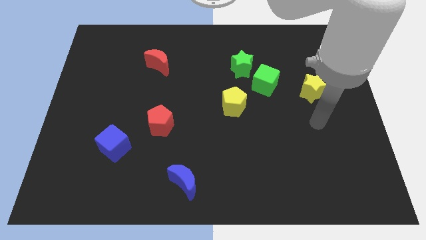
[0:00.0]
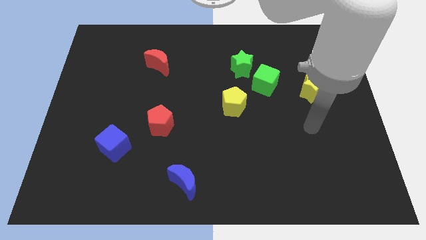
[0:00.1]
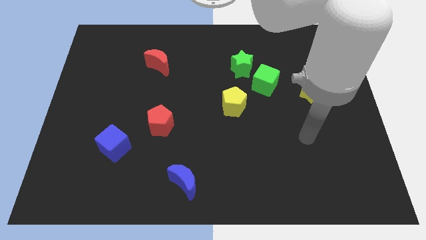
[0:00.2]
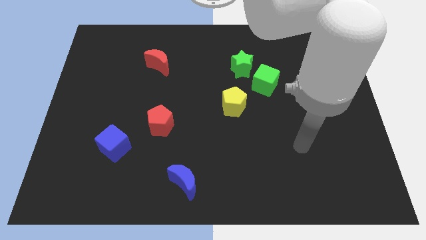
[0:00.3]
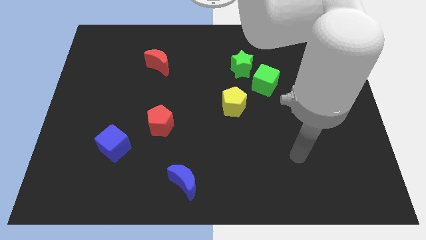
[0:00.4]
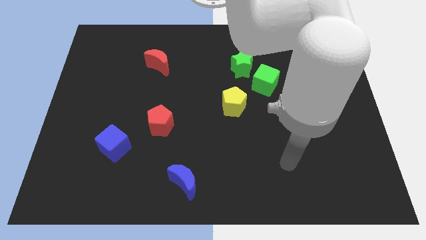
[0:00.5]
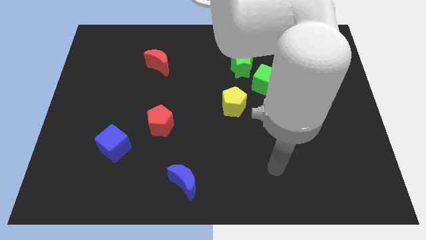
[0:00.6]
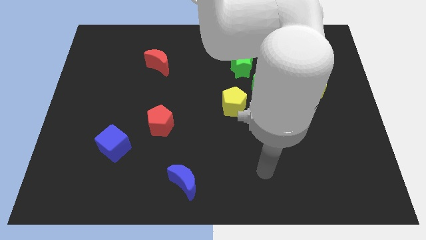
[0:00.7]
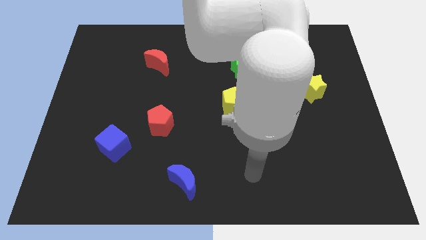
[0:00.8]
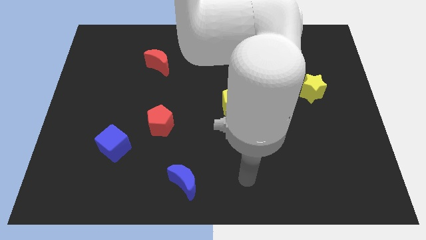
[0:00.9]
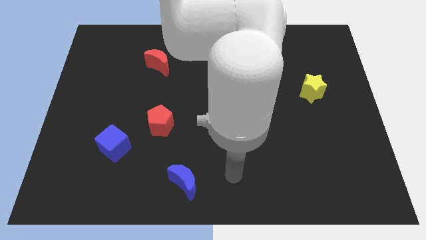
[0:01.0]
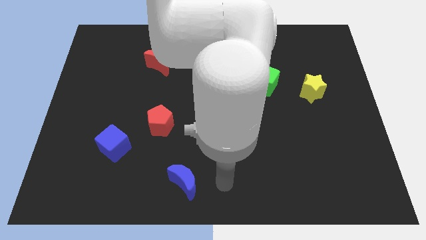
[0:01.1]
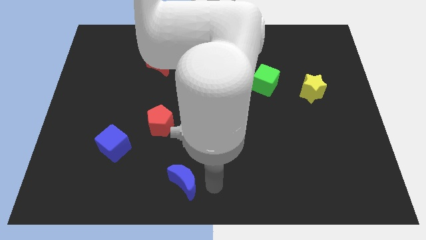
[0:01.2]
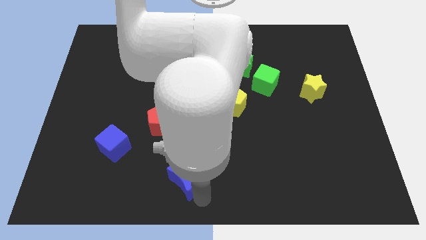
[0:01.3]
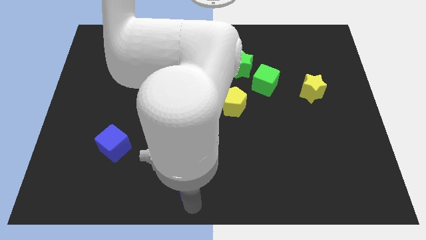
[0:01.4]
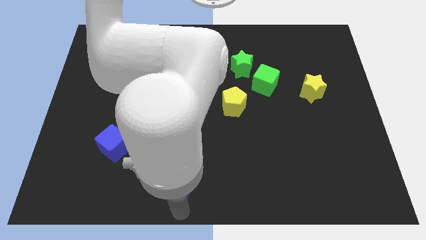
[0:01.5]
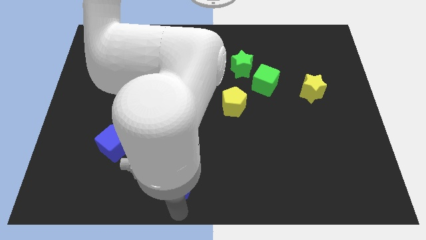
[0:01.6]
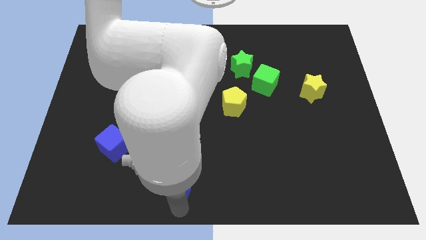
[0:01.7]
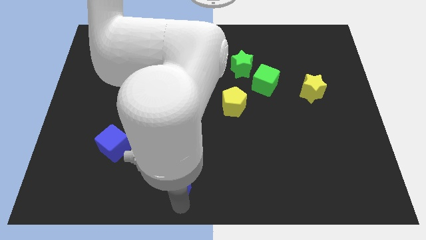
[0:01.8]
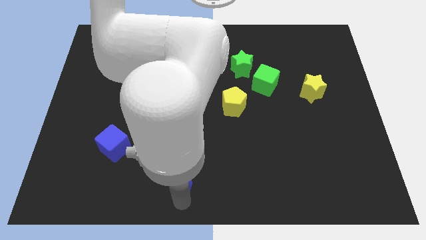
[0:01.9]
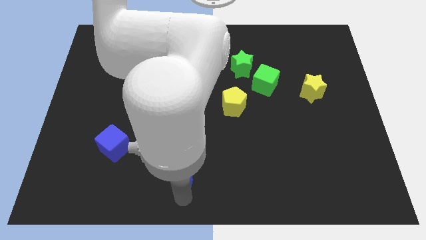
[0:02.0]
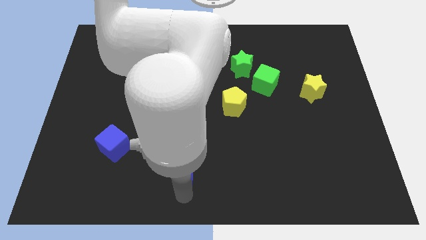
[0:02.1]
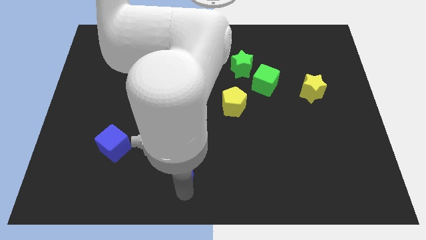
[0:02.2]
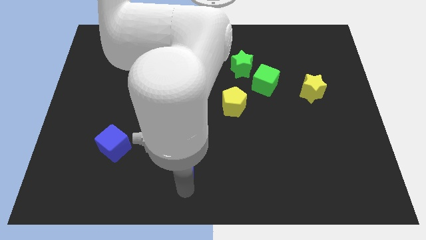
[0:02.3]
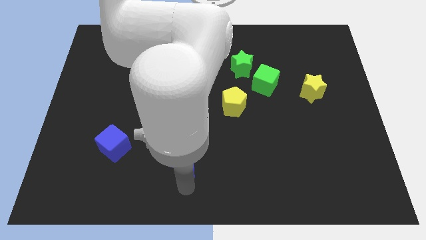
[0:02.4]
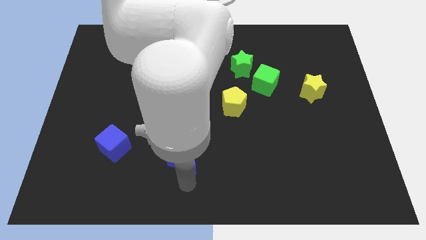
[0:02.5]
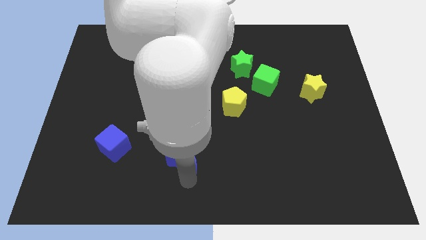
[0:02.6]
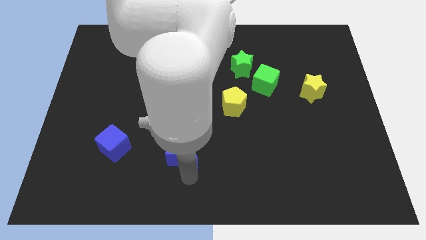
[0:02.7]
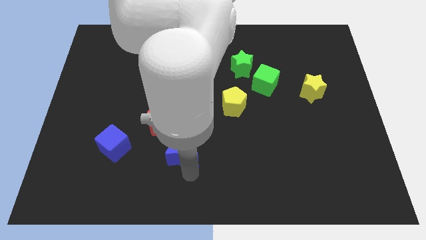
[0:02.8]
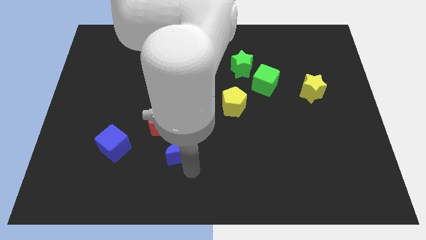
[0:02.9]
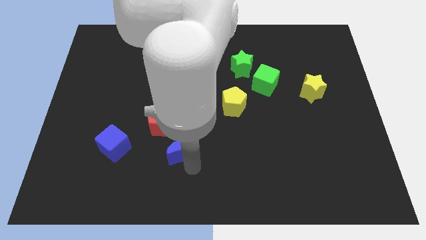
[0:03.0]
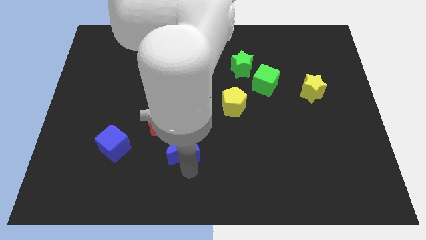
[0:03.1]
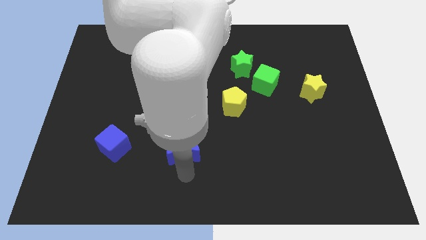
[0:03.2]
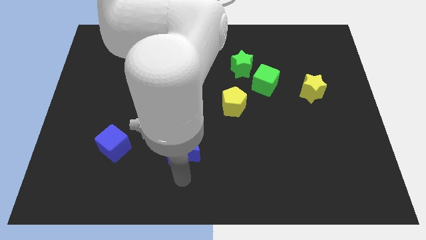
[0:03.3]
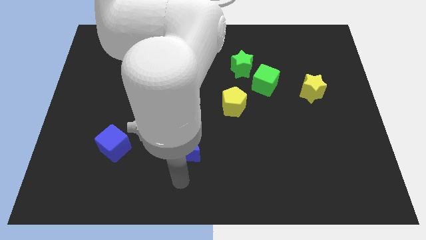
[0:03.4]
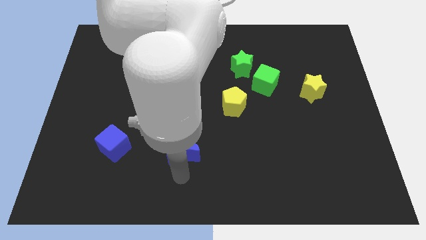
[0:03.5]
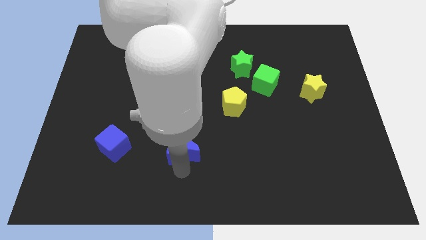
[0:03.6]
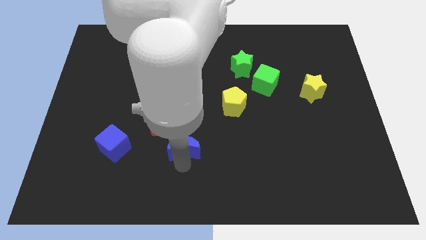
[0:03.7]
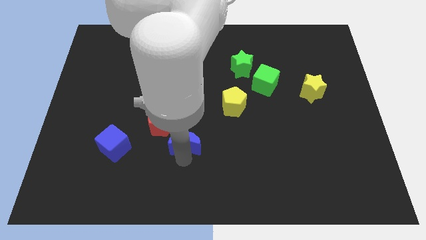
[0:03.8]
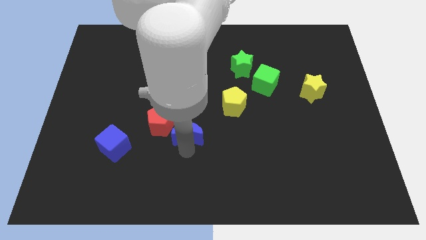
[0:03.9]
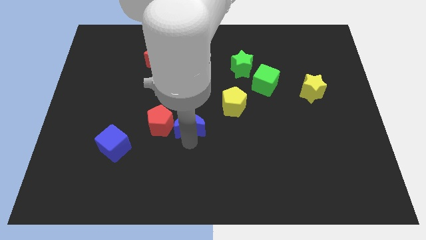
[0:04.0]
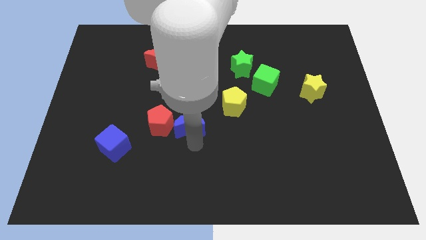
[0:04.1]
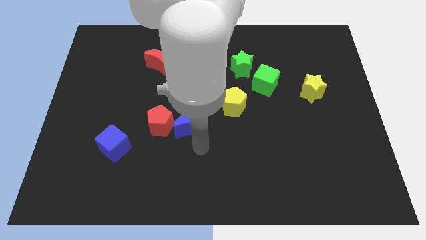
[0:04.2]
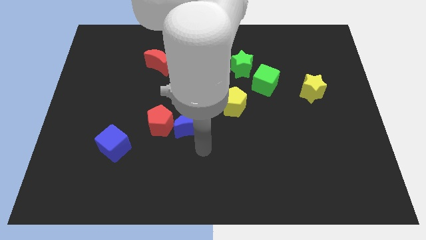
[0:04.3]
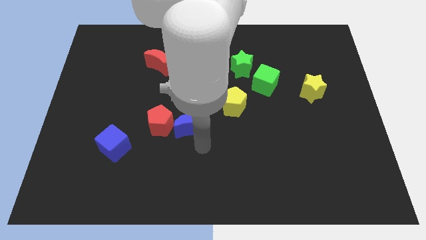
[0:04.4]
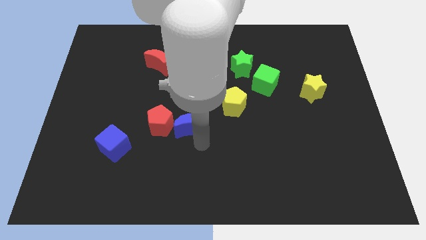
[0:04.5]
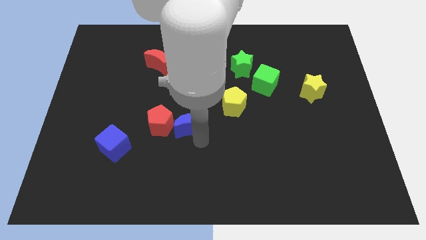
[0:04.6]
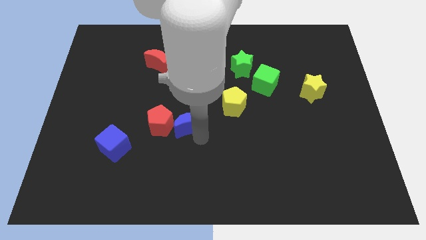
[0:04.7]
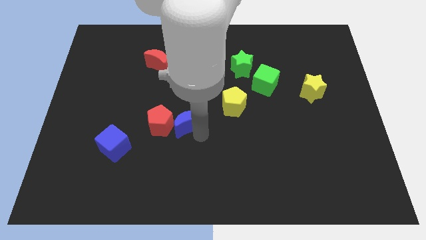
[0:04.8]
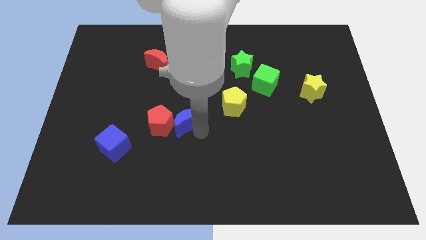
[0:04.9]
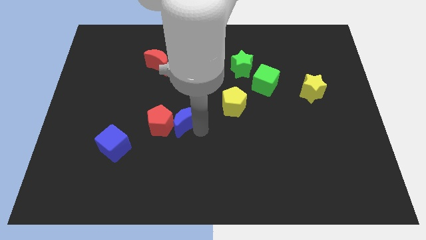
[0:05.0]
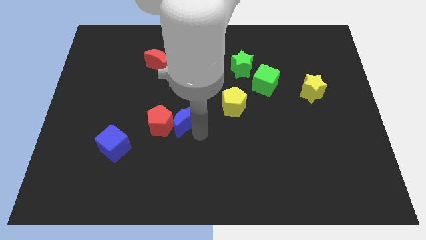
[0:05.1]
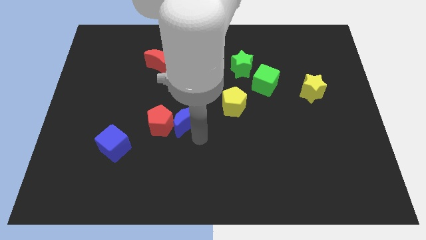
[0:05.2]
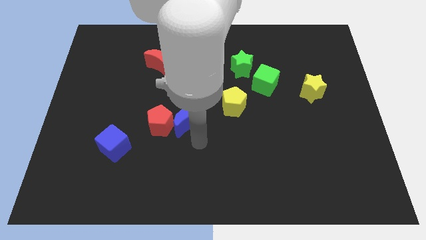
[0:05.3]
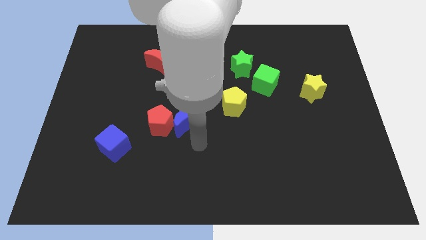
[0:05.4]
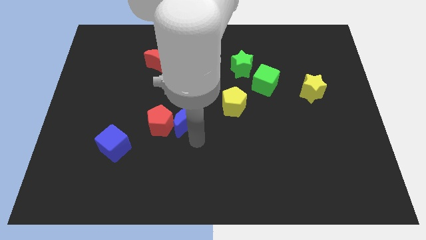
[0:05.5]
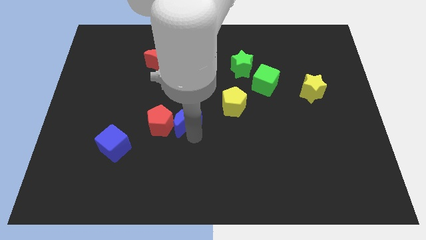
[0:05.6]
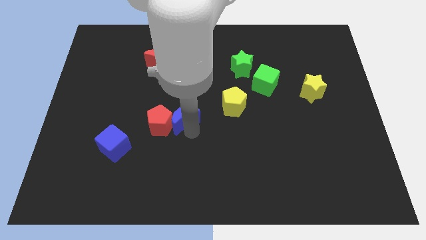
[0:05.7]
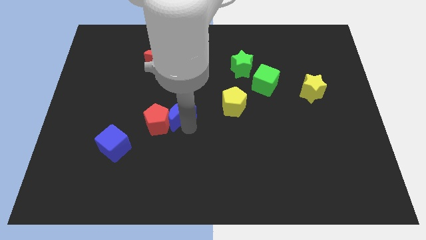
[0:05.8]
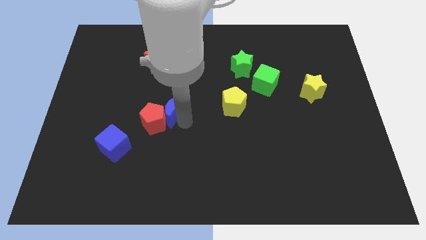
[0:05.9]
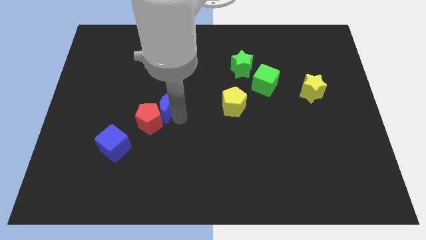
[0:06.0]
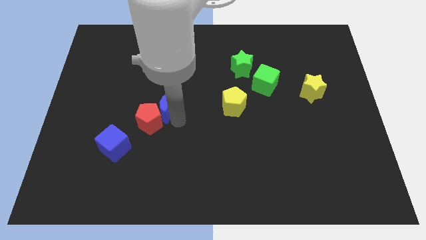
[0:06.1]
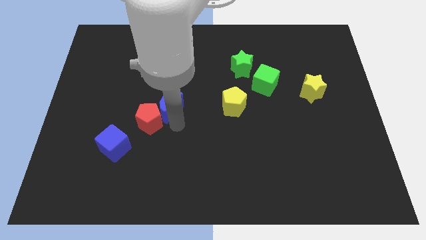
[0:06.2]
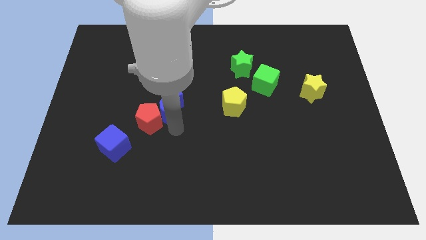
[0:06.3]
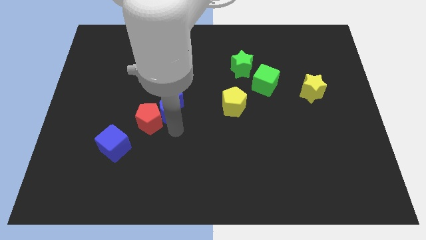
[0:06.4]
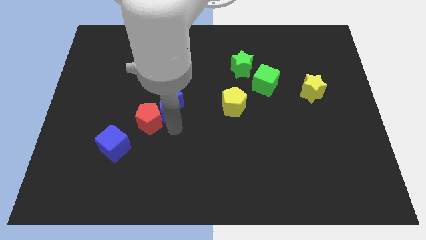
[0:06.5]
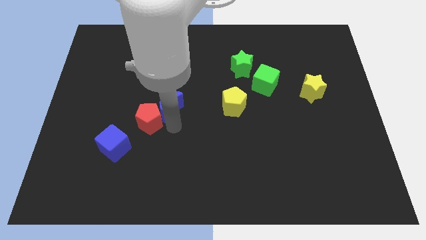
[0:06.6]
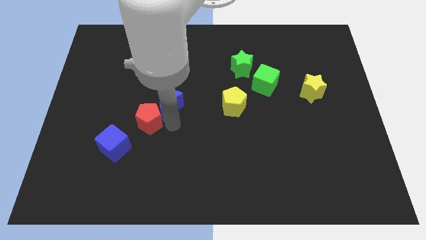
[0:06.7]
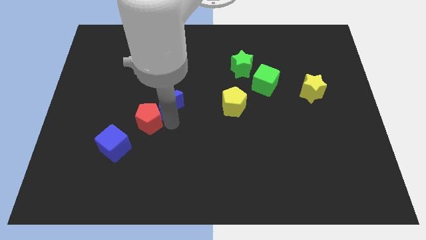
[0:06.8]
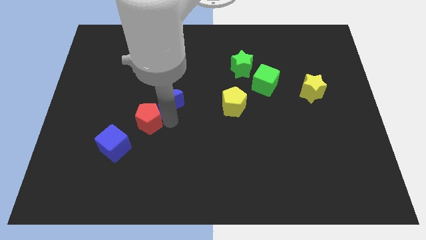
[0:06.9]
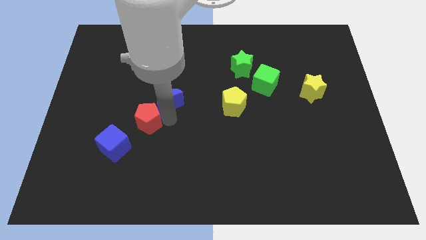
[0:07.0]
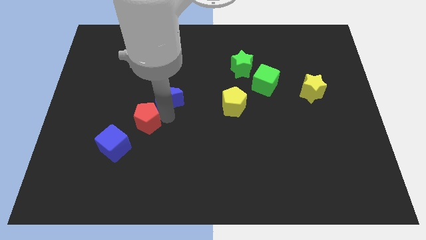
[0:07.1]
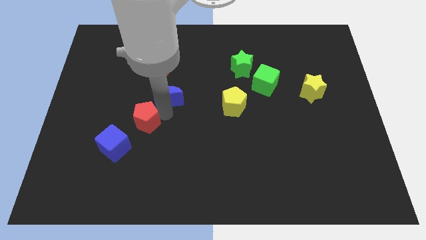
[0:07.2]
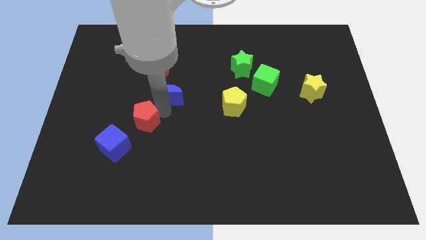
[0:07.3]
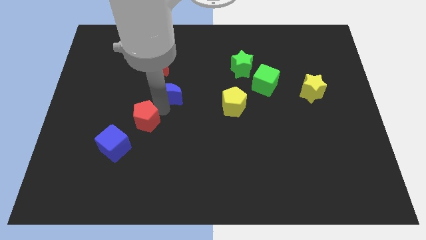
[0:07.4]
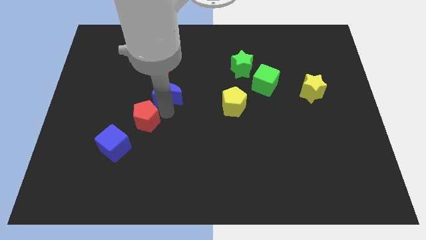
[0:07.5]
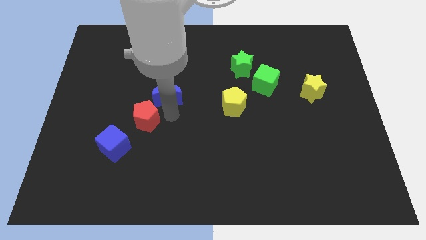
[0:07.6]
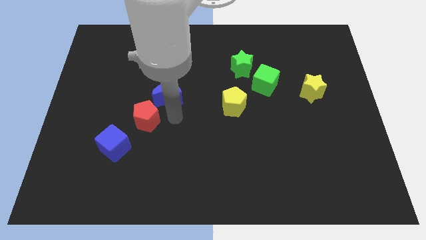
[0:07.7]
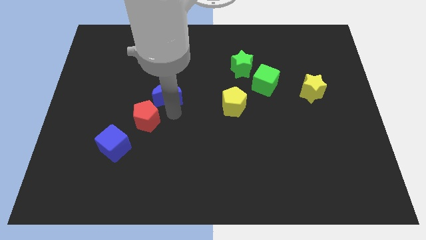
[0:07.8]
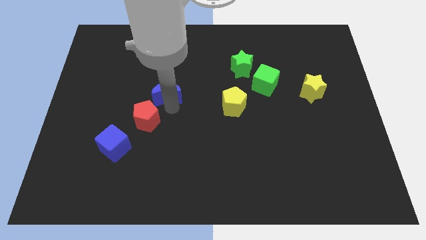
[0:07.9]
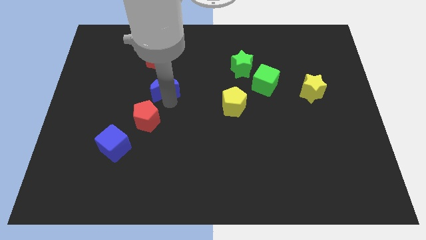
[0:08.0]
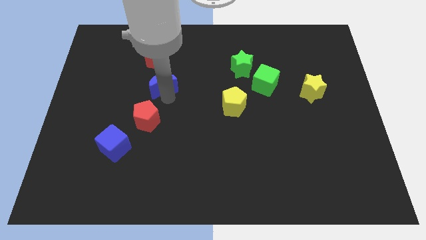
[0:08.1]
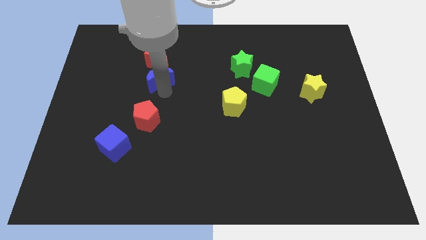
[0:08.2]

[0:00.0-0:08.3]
slide the blue moon close to the red moon
